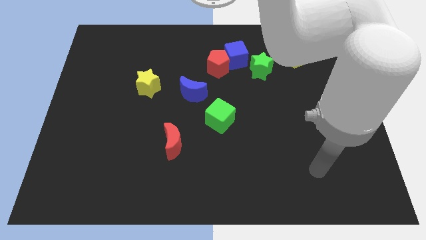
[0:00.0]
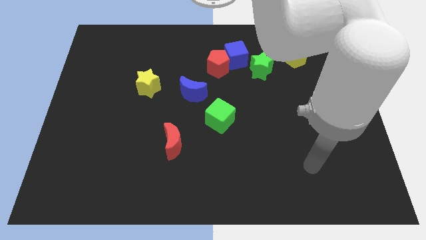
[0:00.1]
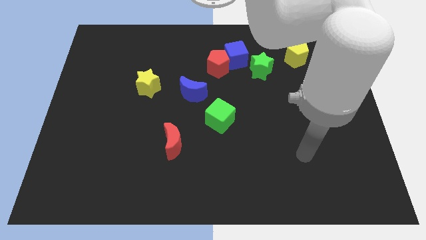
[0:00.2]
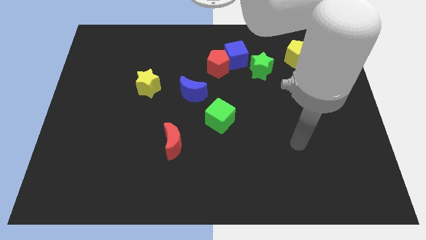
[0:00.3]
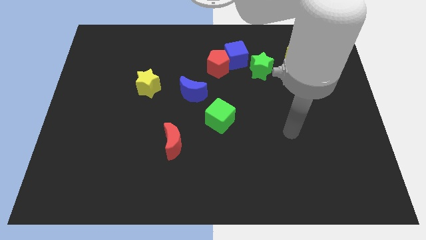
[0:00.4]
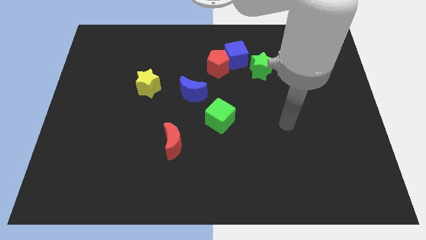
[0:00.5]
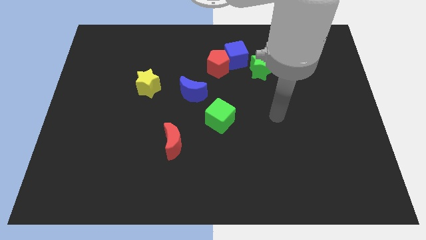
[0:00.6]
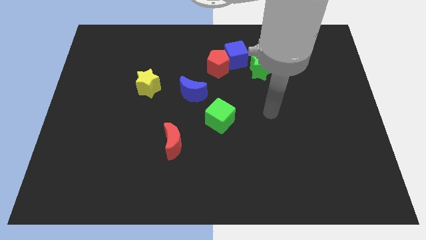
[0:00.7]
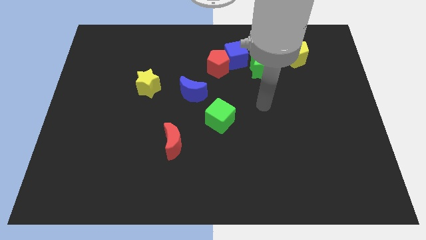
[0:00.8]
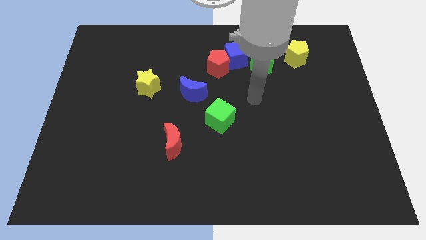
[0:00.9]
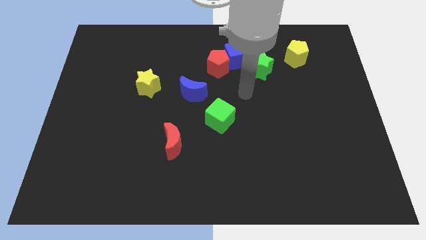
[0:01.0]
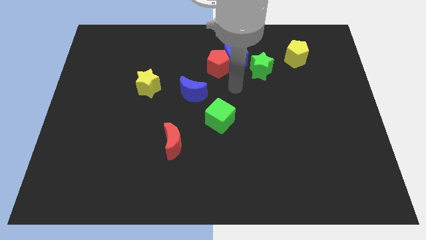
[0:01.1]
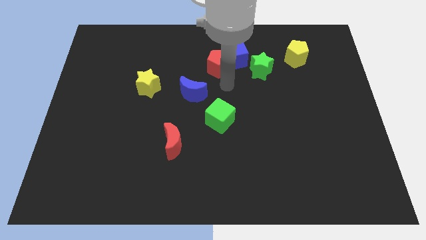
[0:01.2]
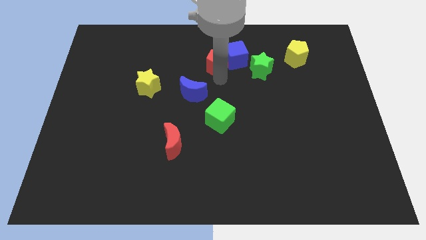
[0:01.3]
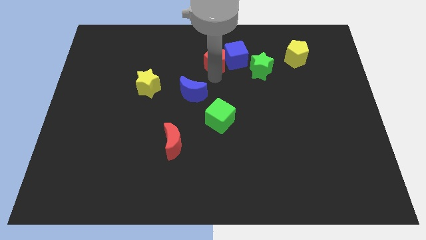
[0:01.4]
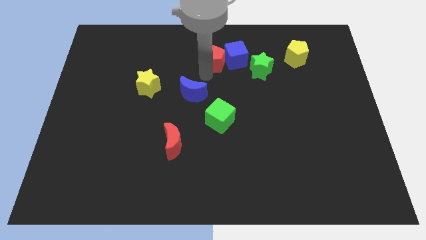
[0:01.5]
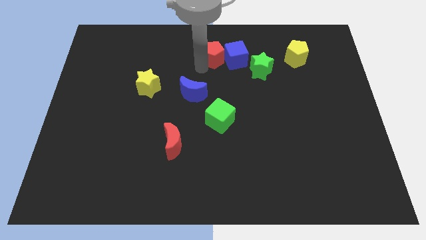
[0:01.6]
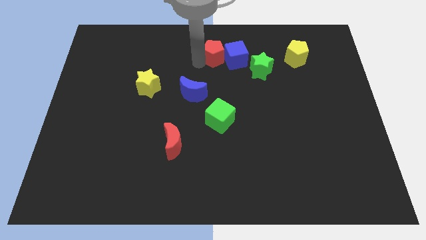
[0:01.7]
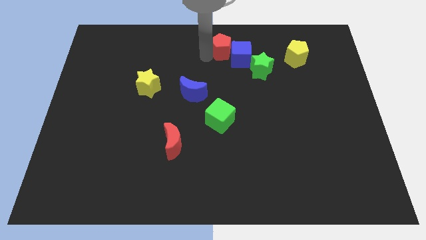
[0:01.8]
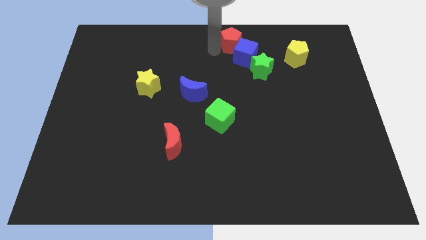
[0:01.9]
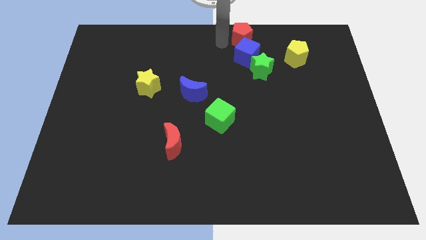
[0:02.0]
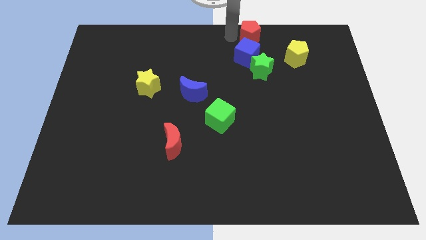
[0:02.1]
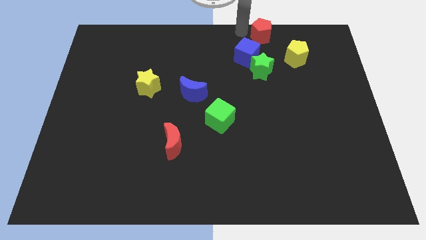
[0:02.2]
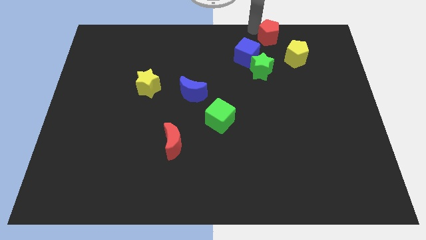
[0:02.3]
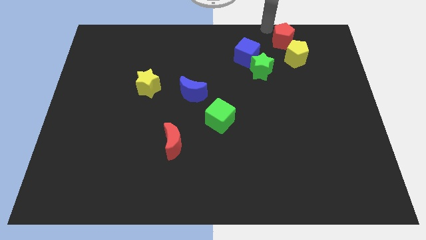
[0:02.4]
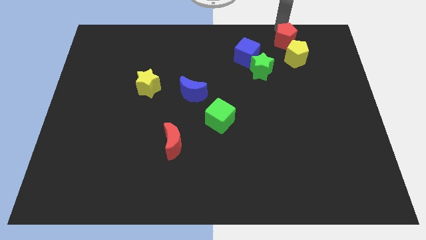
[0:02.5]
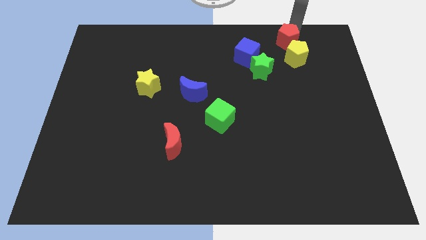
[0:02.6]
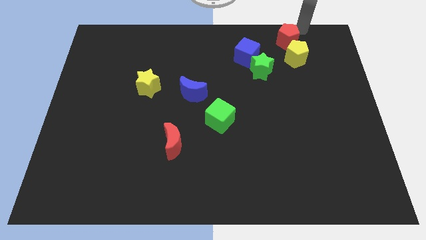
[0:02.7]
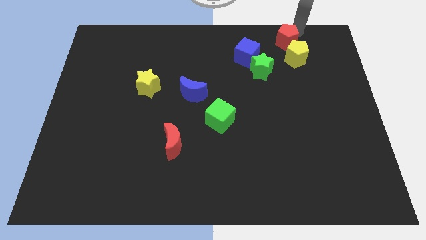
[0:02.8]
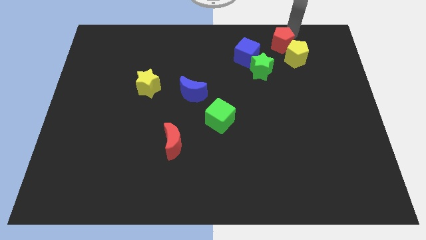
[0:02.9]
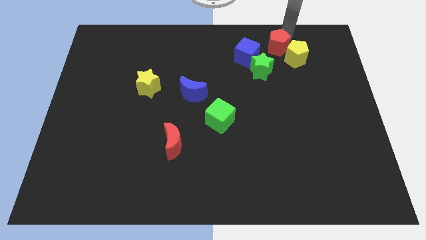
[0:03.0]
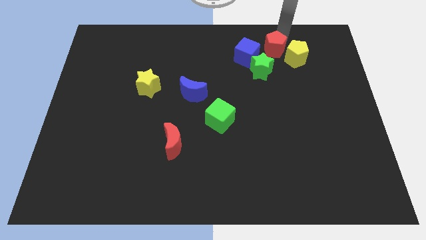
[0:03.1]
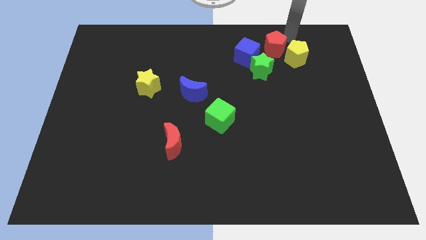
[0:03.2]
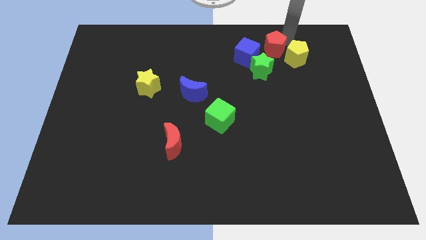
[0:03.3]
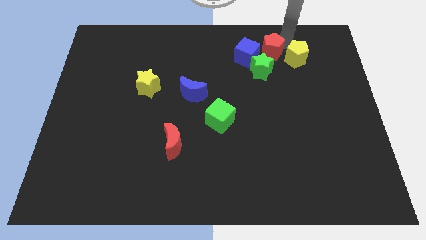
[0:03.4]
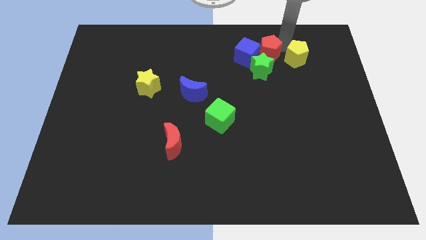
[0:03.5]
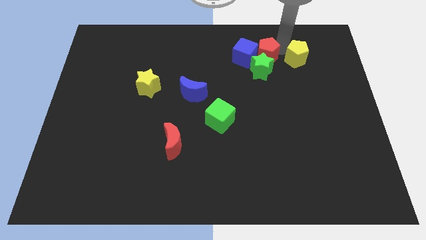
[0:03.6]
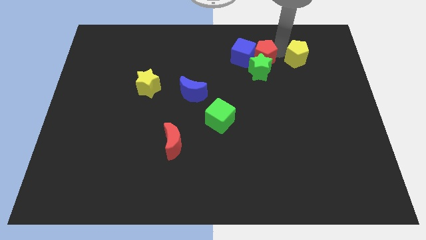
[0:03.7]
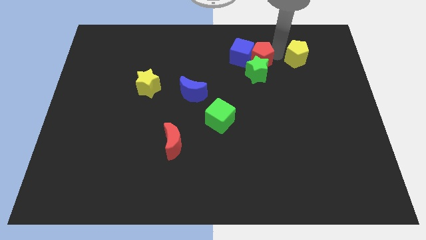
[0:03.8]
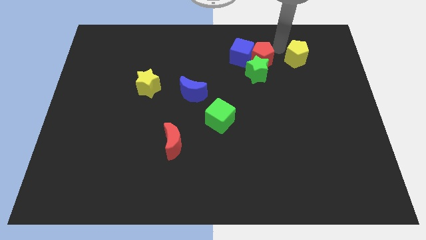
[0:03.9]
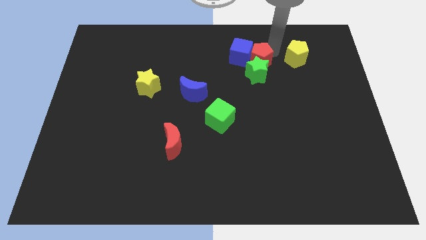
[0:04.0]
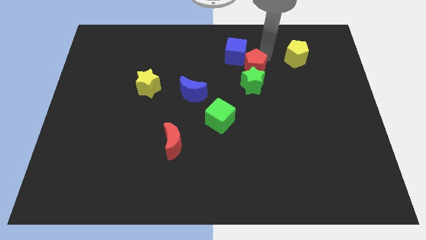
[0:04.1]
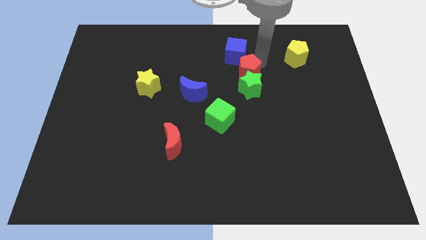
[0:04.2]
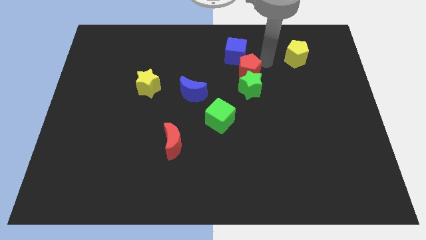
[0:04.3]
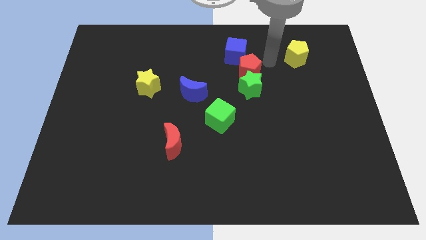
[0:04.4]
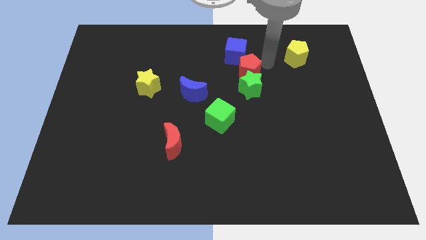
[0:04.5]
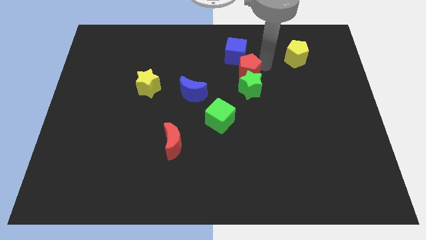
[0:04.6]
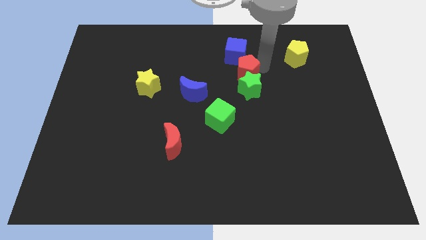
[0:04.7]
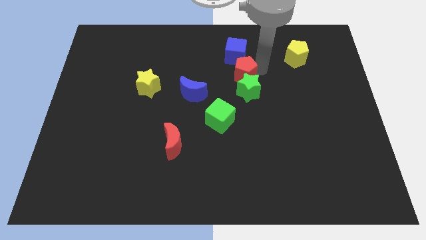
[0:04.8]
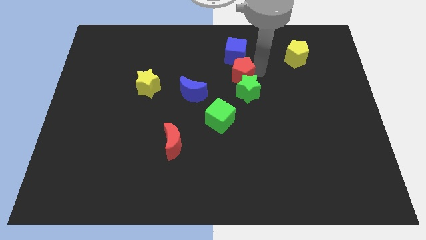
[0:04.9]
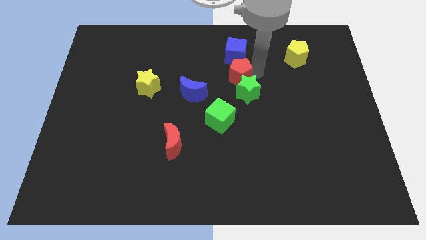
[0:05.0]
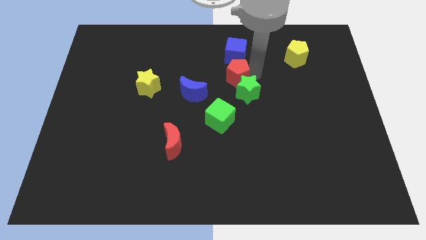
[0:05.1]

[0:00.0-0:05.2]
slide the red pentagon above the green cube

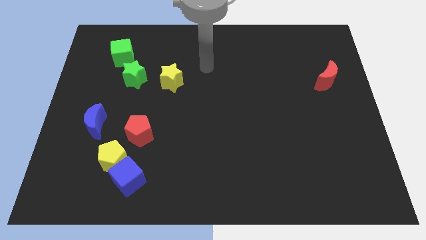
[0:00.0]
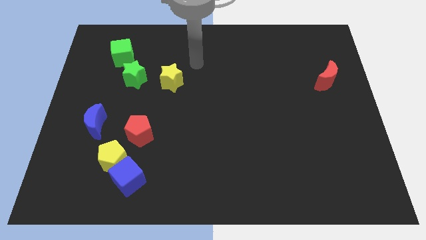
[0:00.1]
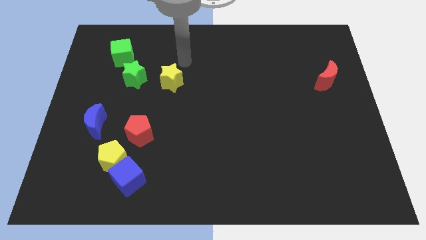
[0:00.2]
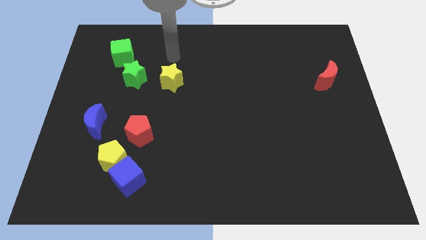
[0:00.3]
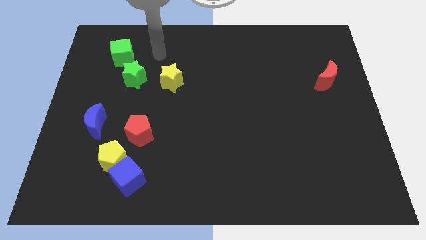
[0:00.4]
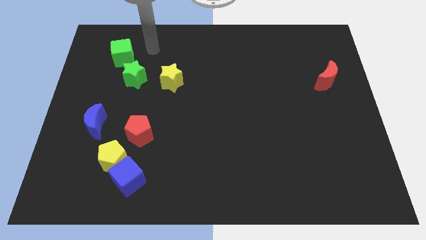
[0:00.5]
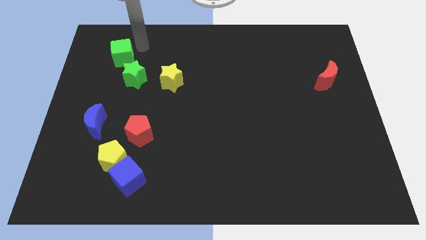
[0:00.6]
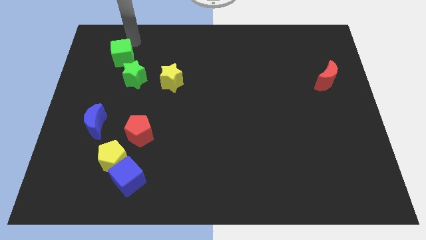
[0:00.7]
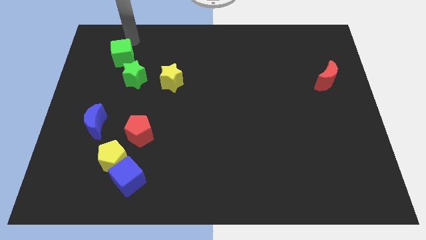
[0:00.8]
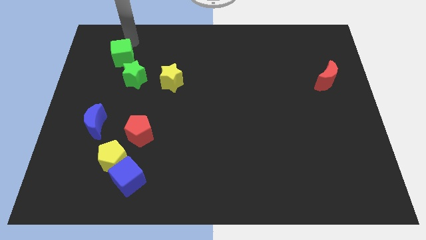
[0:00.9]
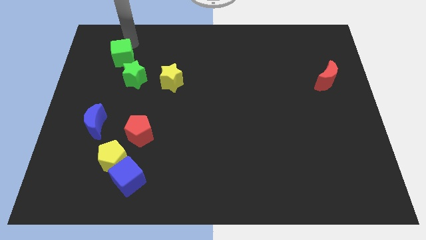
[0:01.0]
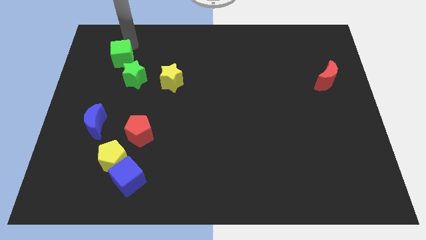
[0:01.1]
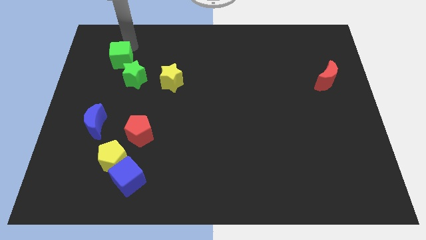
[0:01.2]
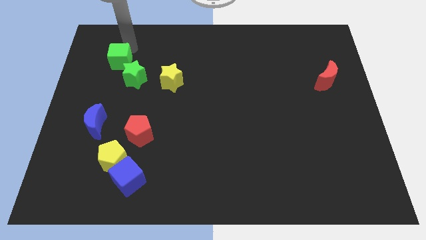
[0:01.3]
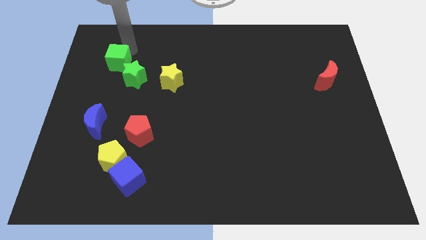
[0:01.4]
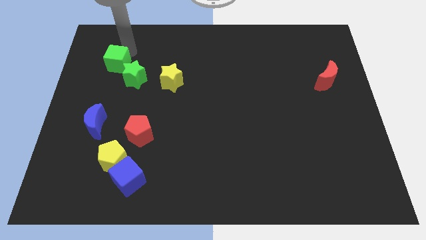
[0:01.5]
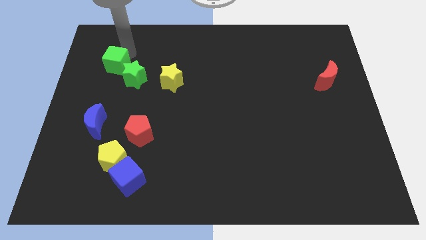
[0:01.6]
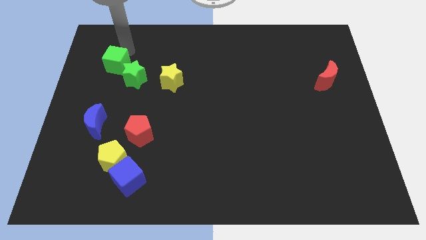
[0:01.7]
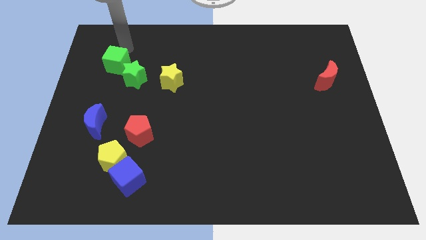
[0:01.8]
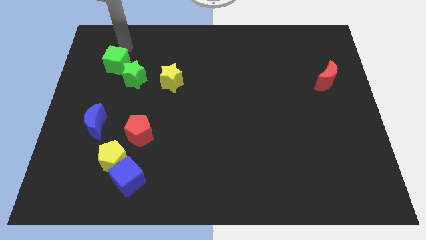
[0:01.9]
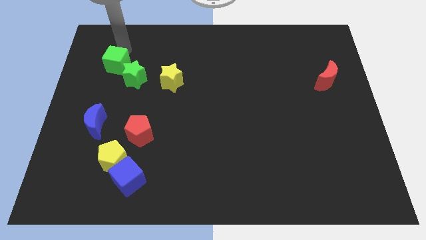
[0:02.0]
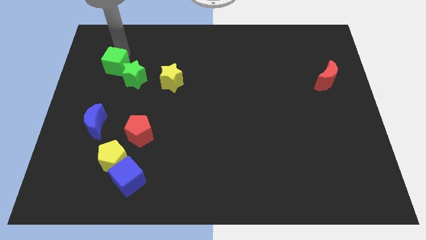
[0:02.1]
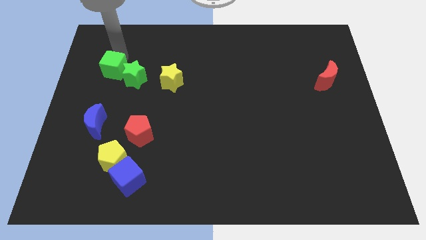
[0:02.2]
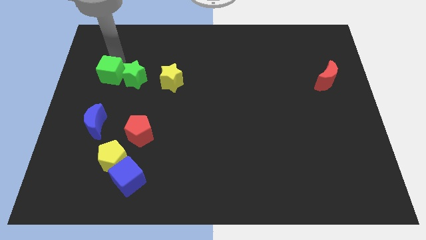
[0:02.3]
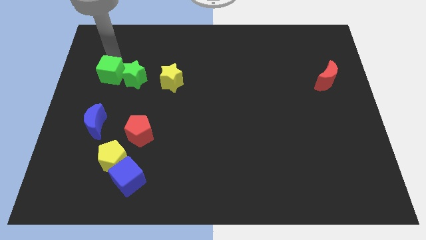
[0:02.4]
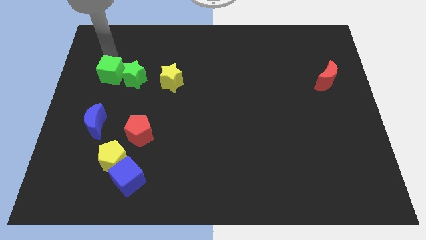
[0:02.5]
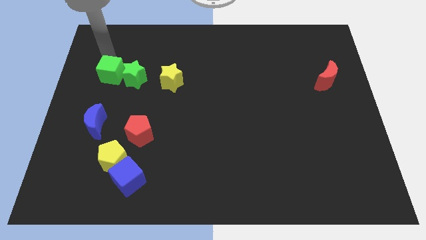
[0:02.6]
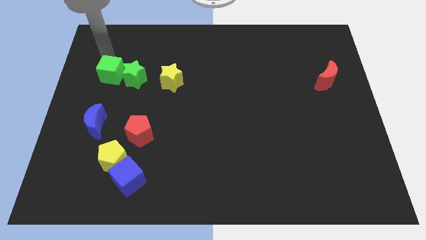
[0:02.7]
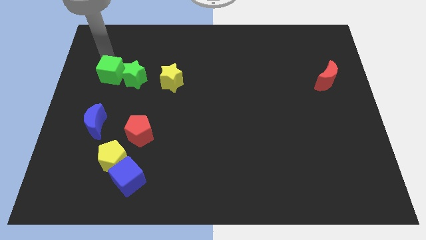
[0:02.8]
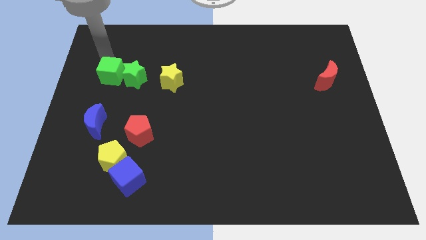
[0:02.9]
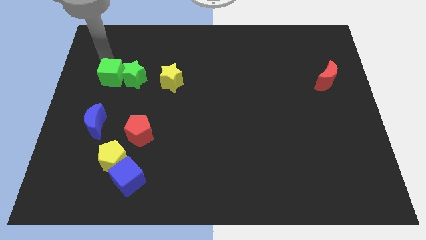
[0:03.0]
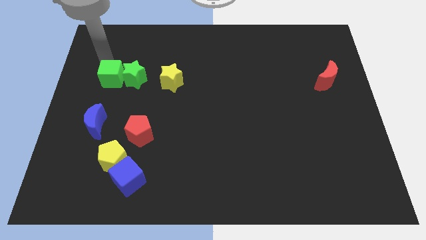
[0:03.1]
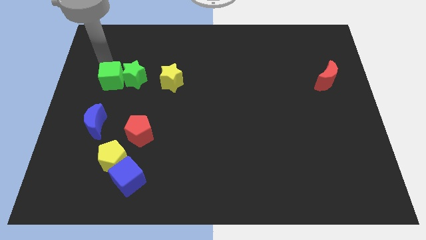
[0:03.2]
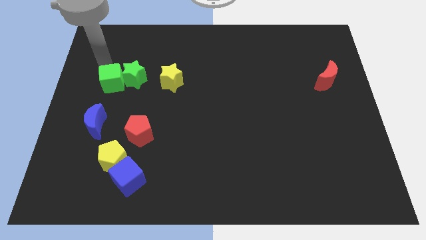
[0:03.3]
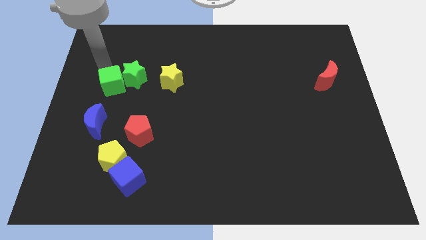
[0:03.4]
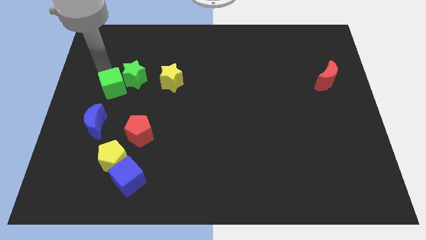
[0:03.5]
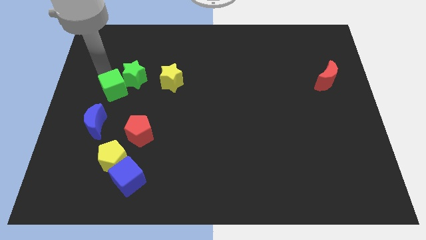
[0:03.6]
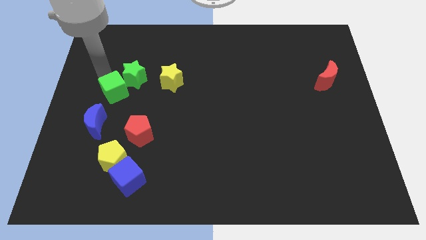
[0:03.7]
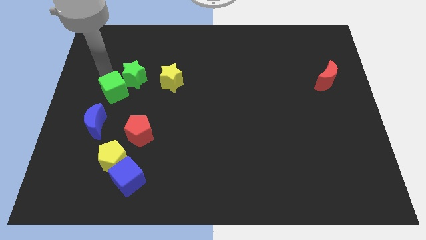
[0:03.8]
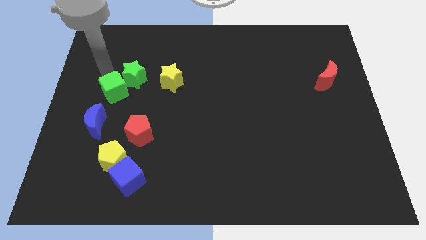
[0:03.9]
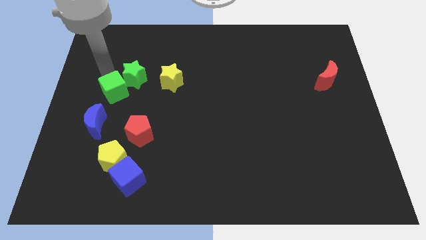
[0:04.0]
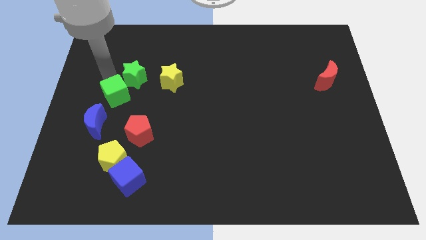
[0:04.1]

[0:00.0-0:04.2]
put the green cube to the top right side of the blue moon
